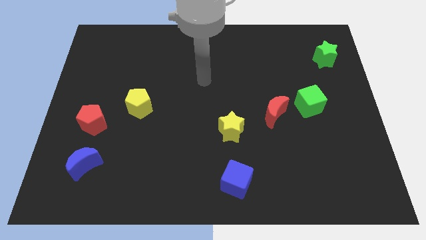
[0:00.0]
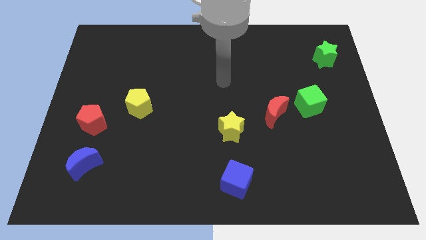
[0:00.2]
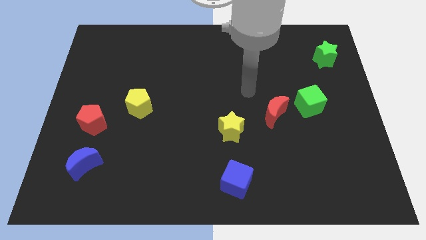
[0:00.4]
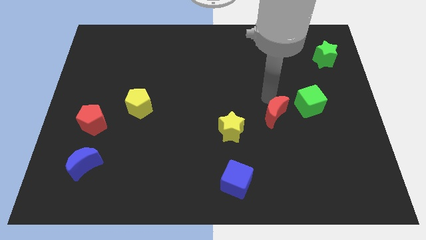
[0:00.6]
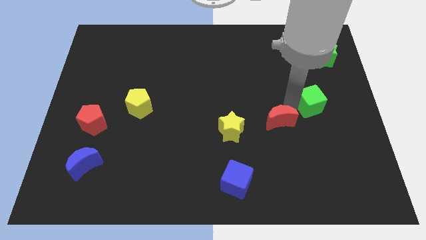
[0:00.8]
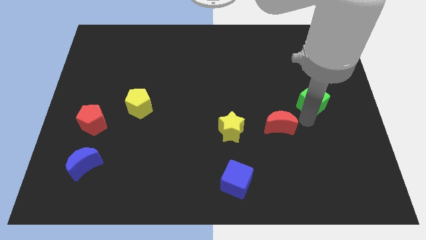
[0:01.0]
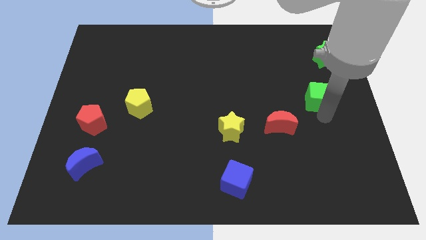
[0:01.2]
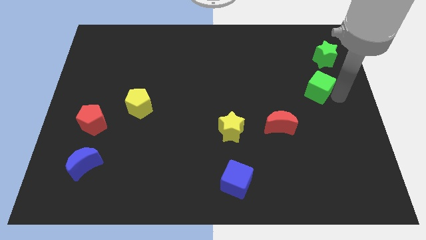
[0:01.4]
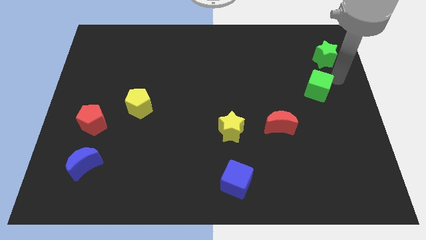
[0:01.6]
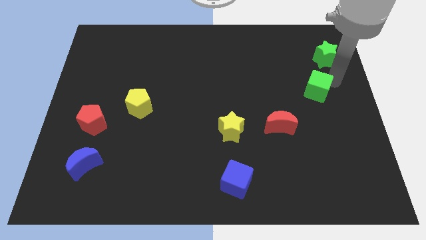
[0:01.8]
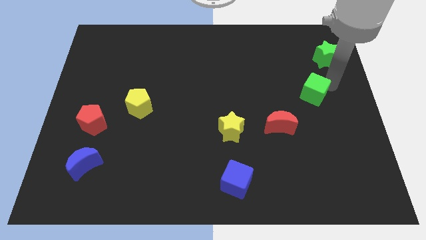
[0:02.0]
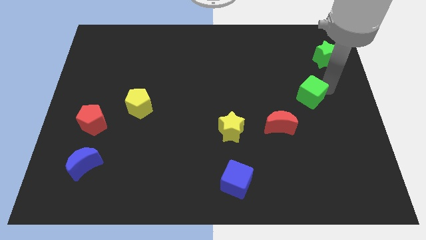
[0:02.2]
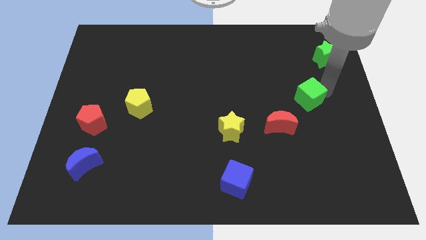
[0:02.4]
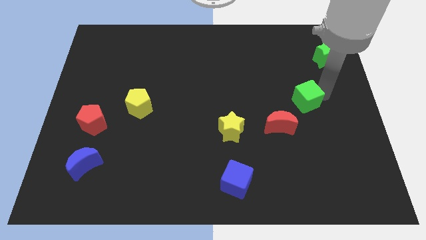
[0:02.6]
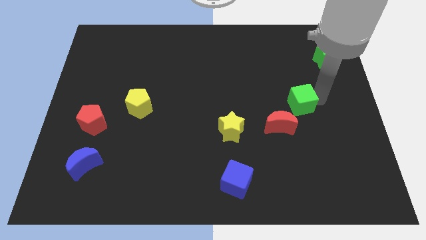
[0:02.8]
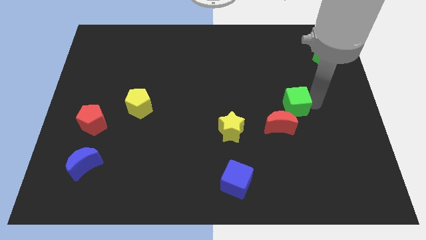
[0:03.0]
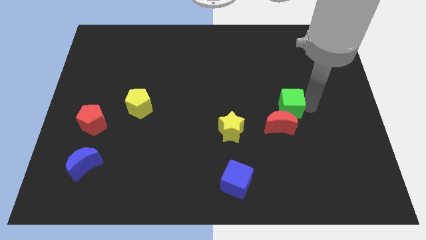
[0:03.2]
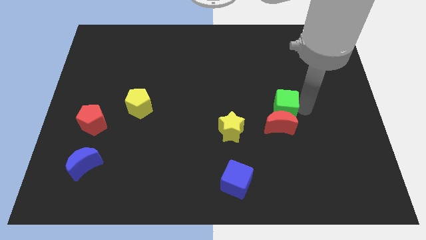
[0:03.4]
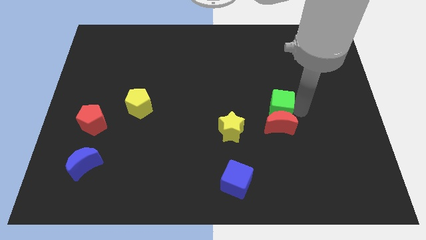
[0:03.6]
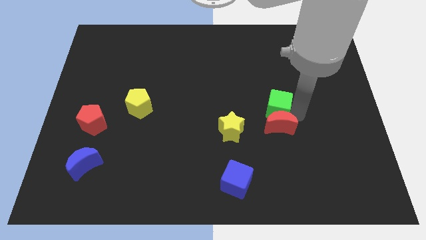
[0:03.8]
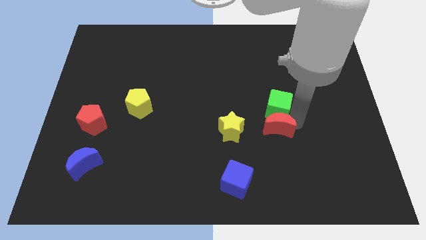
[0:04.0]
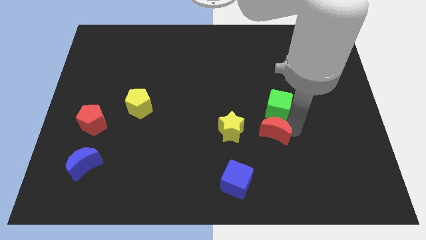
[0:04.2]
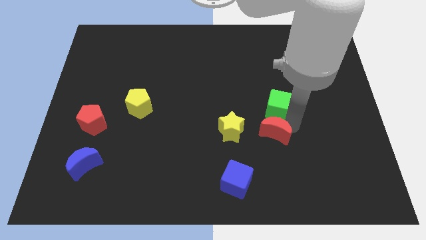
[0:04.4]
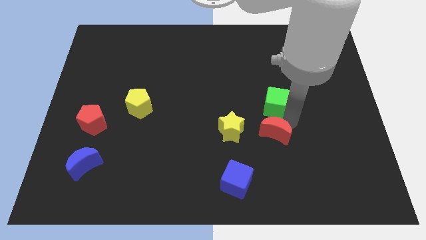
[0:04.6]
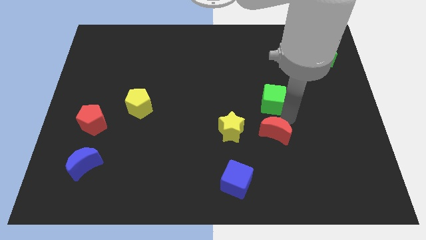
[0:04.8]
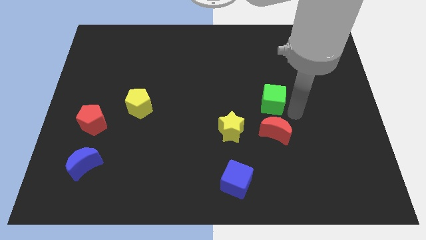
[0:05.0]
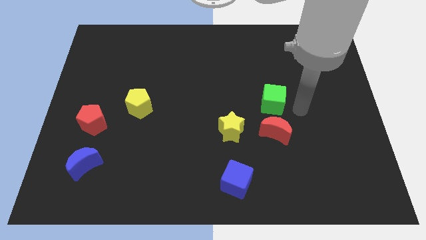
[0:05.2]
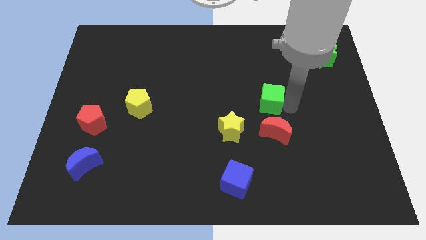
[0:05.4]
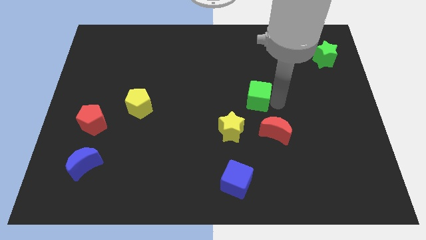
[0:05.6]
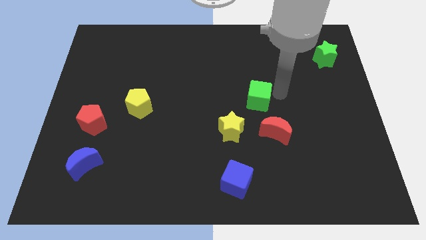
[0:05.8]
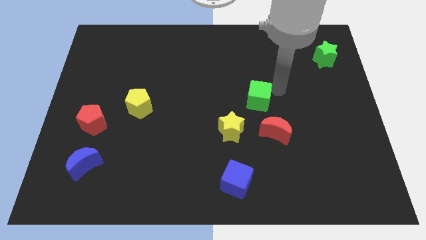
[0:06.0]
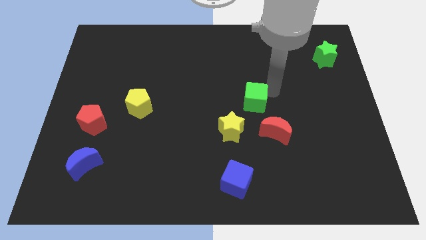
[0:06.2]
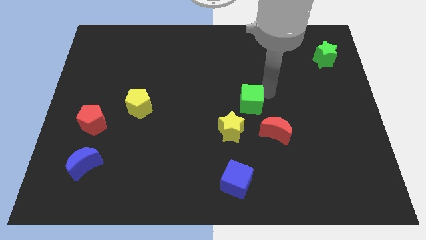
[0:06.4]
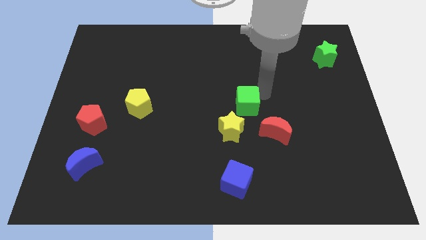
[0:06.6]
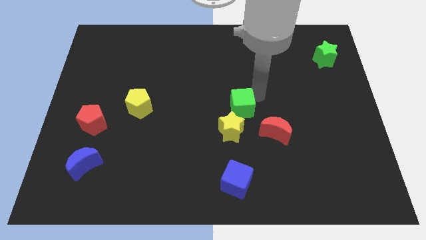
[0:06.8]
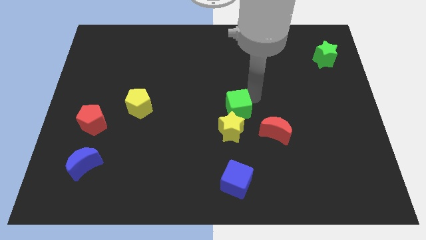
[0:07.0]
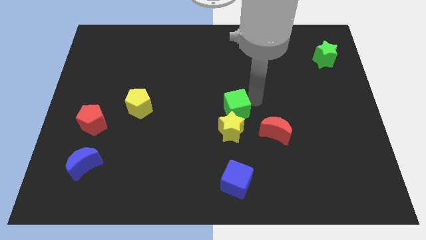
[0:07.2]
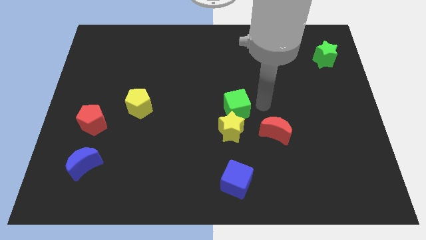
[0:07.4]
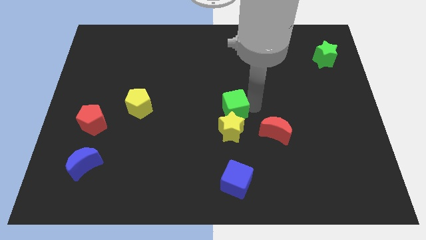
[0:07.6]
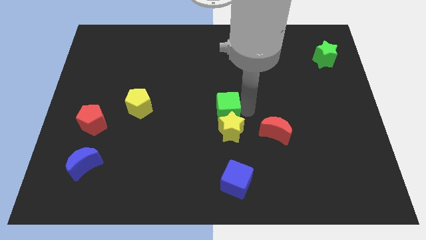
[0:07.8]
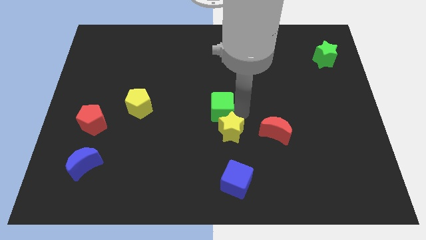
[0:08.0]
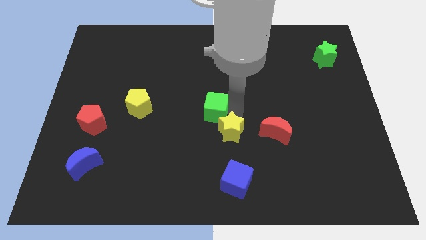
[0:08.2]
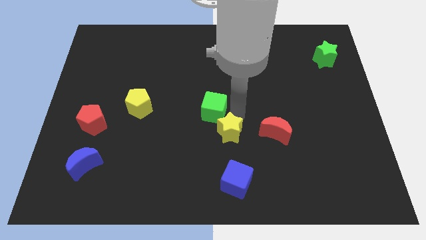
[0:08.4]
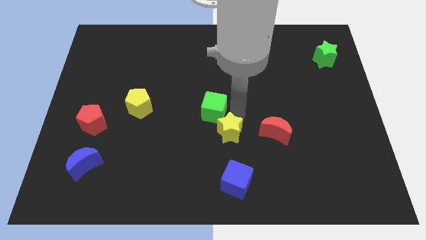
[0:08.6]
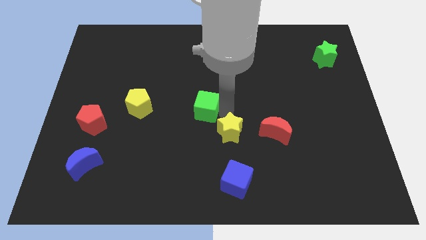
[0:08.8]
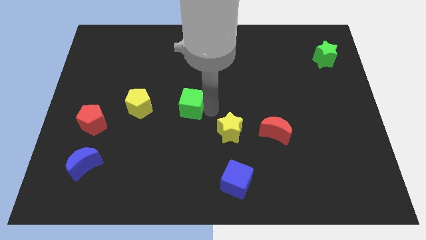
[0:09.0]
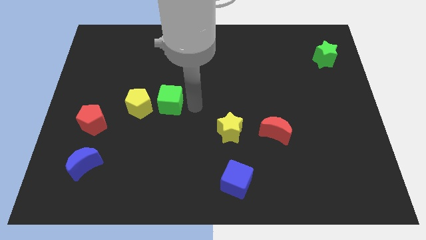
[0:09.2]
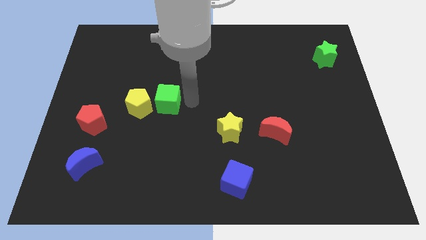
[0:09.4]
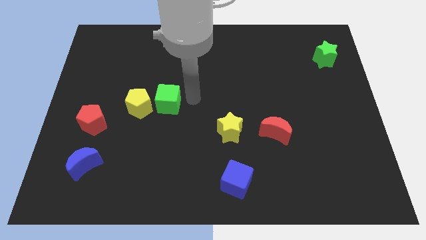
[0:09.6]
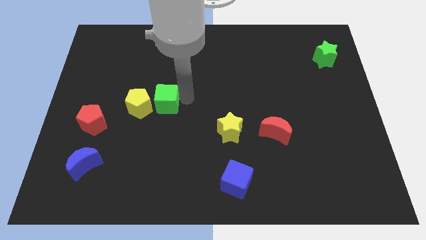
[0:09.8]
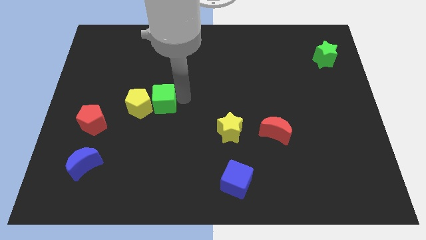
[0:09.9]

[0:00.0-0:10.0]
push the green cube to the yellow pentagon

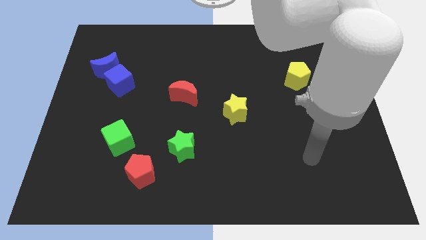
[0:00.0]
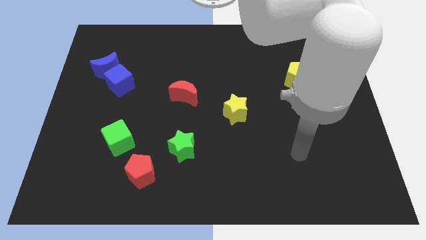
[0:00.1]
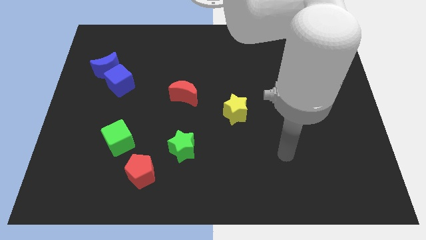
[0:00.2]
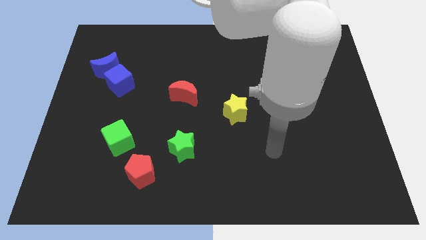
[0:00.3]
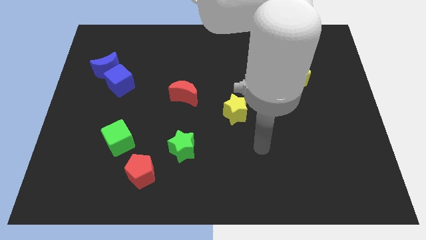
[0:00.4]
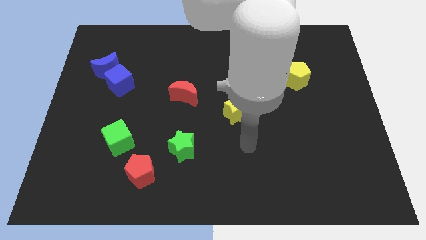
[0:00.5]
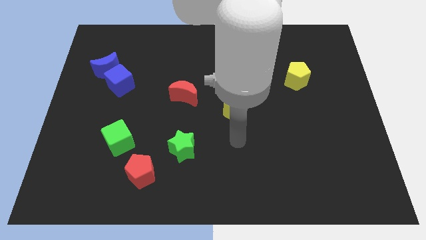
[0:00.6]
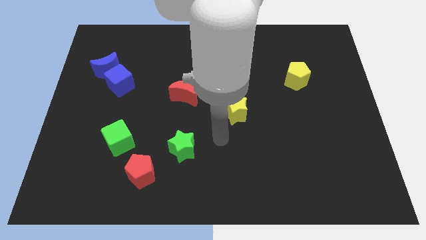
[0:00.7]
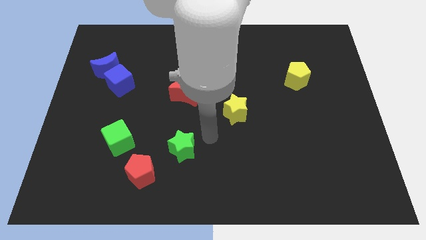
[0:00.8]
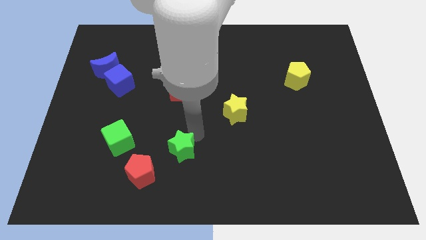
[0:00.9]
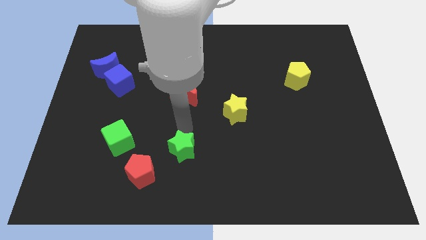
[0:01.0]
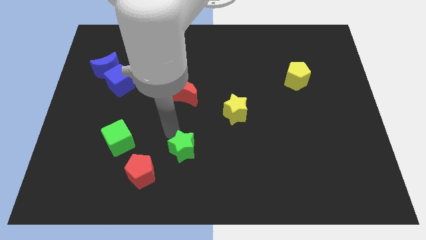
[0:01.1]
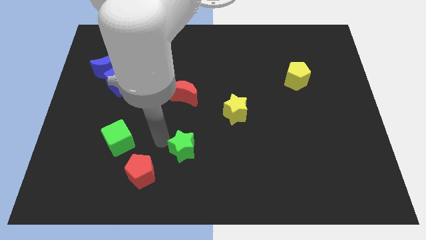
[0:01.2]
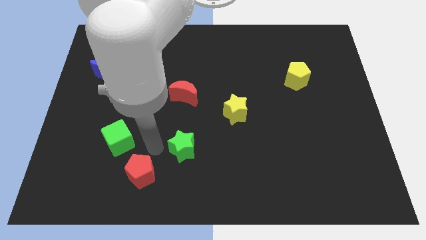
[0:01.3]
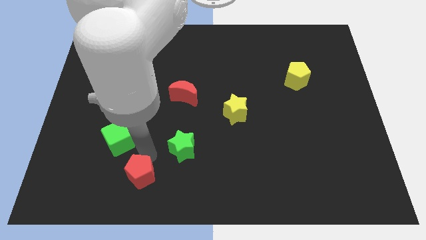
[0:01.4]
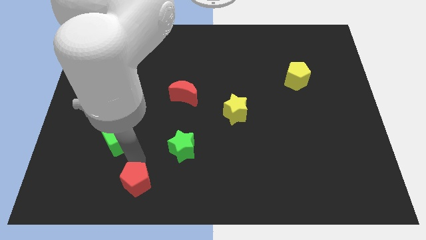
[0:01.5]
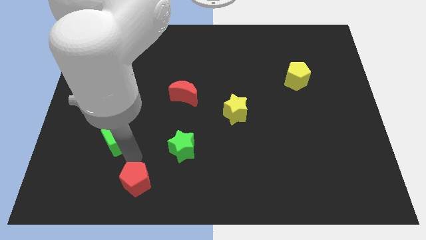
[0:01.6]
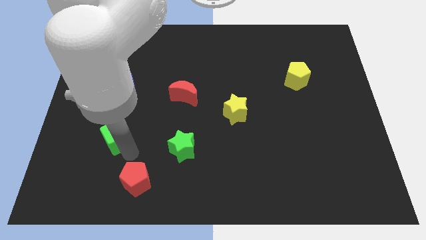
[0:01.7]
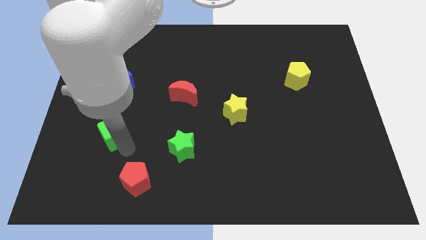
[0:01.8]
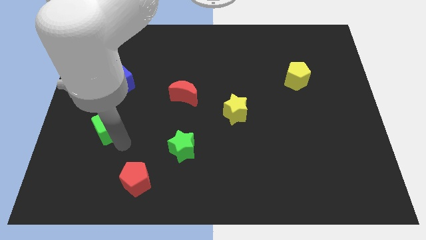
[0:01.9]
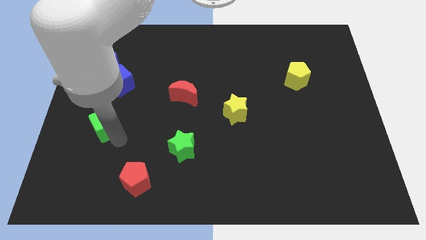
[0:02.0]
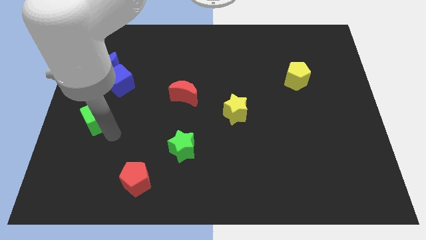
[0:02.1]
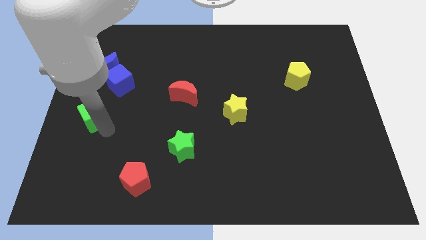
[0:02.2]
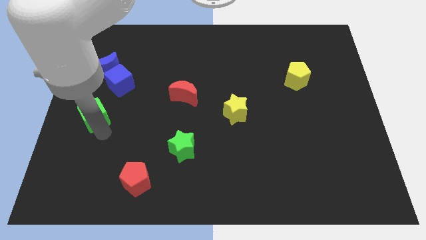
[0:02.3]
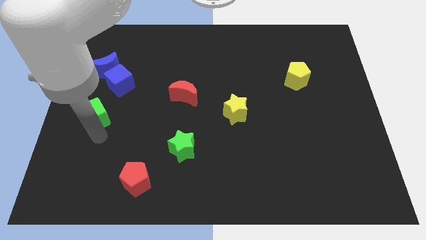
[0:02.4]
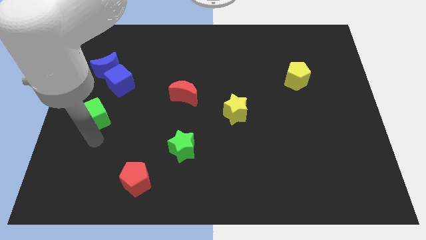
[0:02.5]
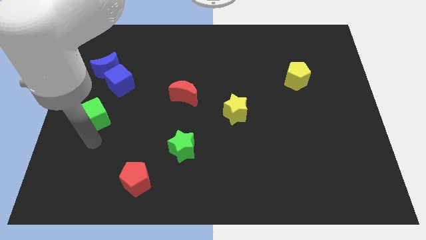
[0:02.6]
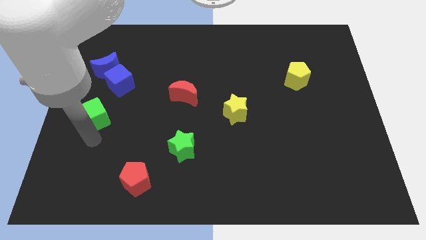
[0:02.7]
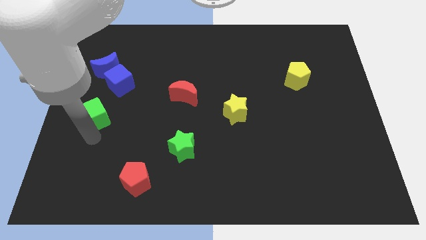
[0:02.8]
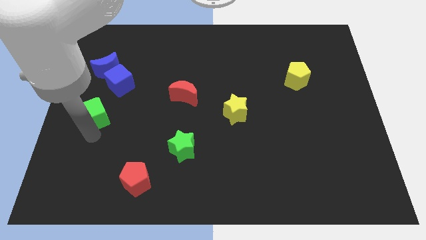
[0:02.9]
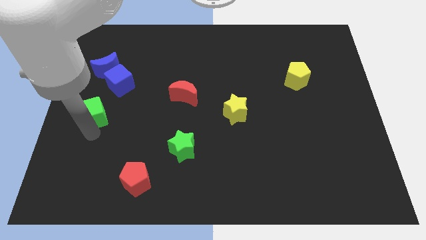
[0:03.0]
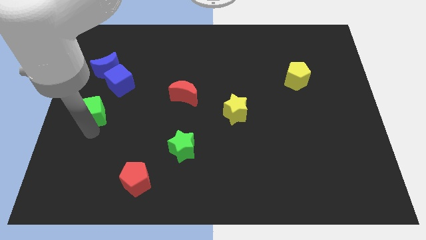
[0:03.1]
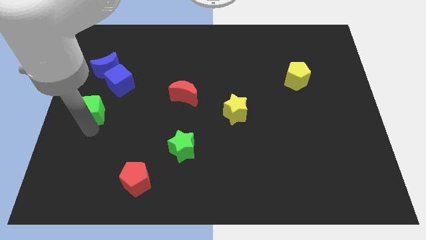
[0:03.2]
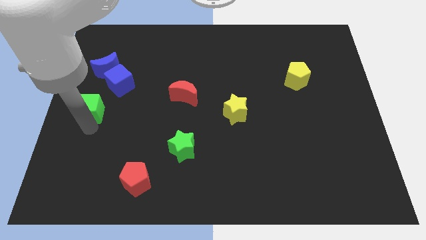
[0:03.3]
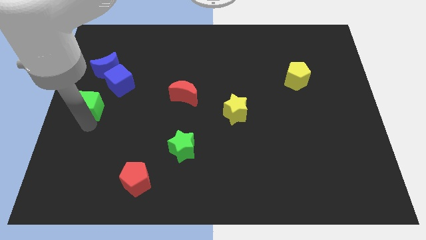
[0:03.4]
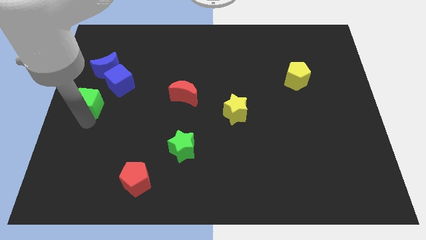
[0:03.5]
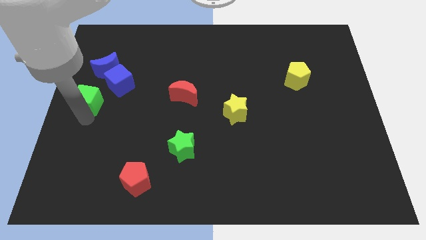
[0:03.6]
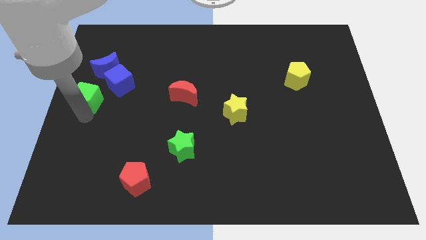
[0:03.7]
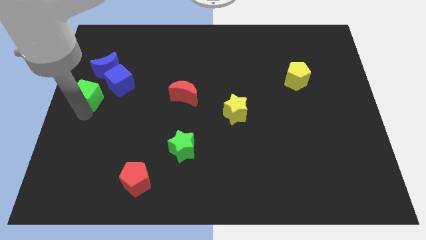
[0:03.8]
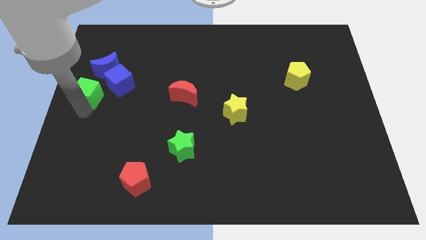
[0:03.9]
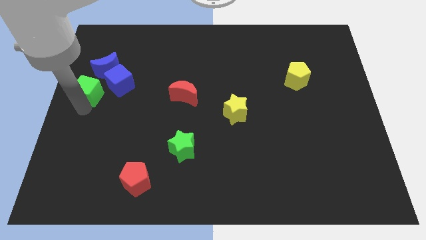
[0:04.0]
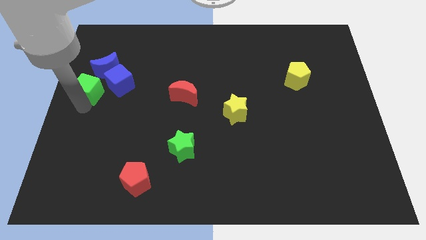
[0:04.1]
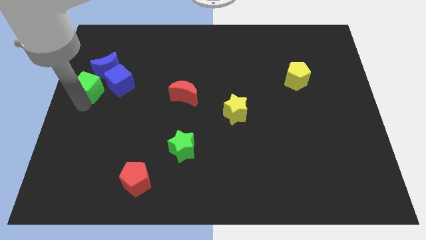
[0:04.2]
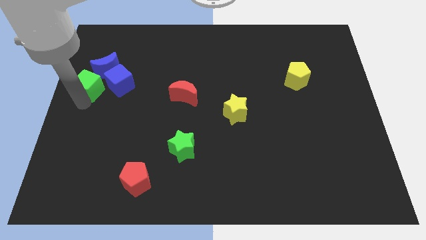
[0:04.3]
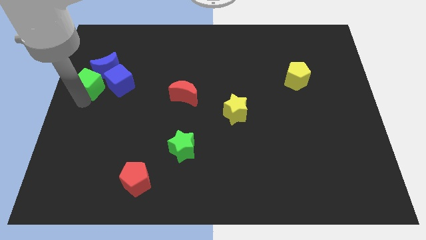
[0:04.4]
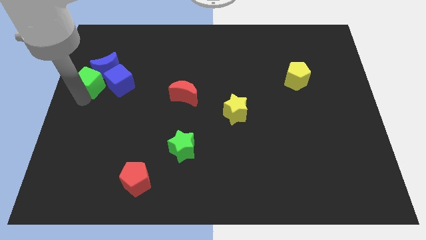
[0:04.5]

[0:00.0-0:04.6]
move the green cube towards the blue moon
